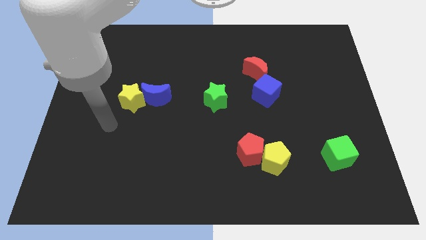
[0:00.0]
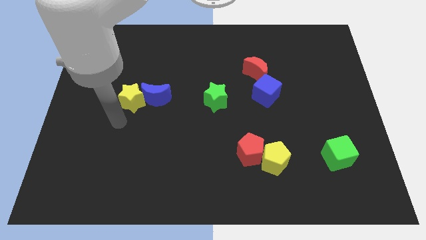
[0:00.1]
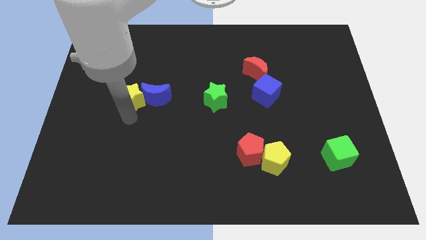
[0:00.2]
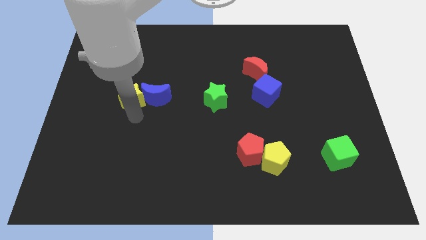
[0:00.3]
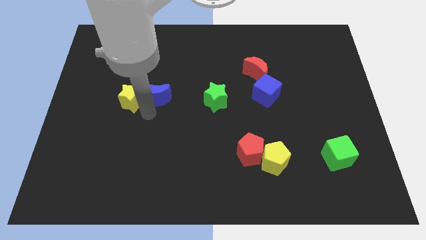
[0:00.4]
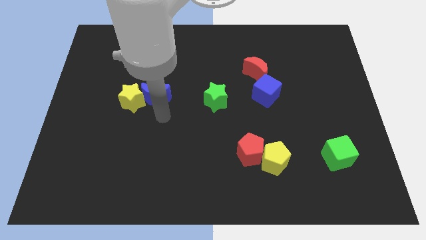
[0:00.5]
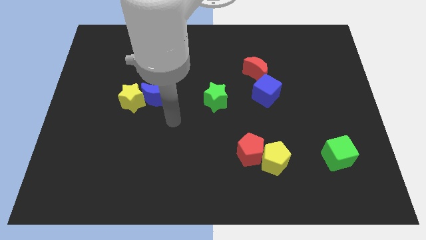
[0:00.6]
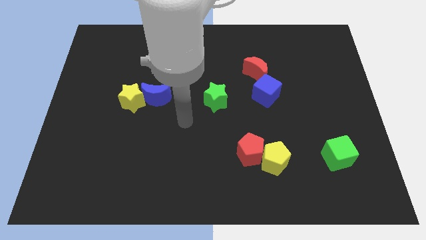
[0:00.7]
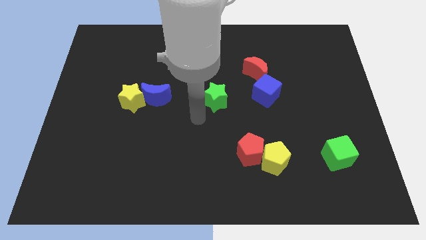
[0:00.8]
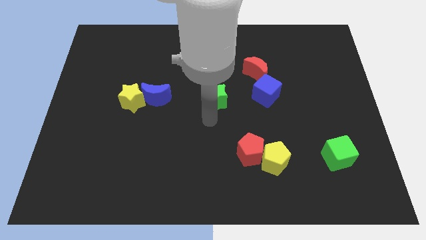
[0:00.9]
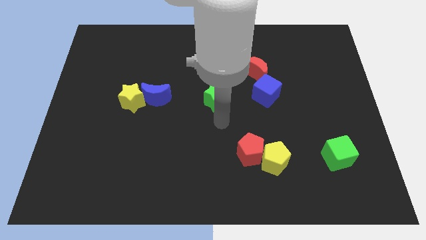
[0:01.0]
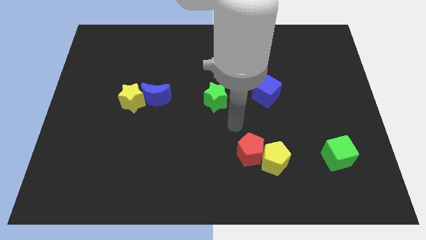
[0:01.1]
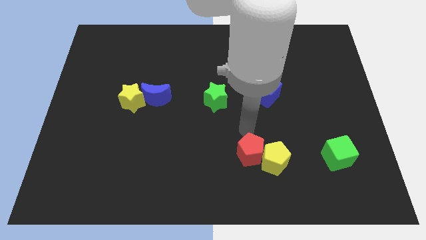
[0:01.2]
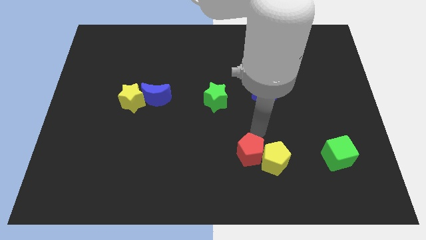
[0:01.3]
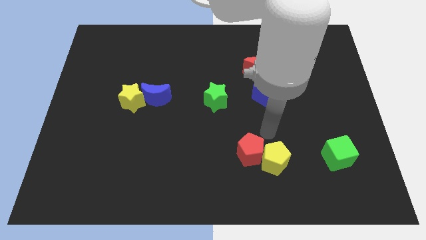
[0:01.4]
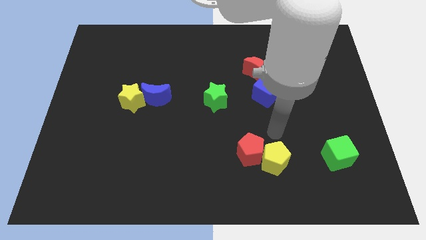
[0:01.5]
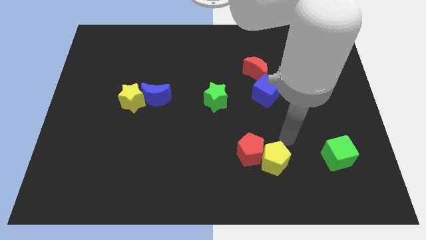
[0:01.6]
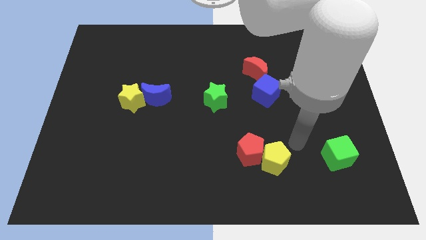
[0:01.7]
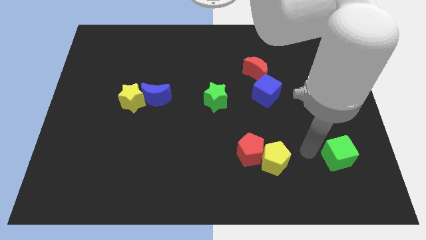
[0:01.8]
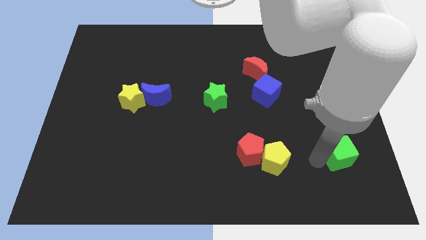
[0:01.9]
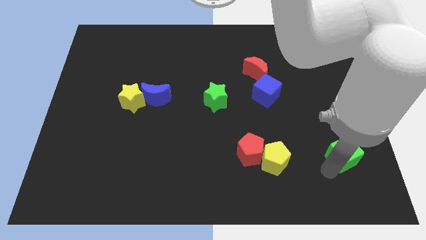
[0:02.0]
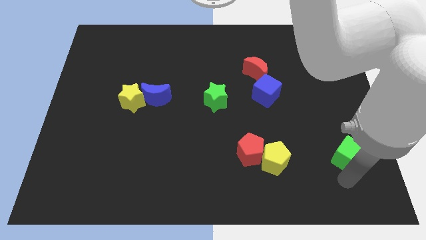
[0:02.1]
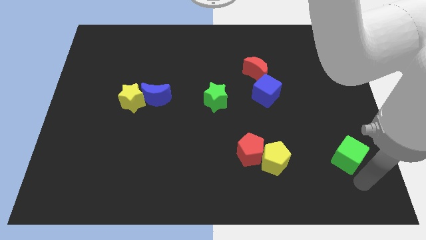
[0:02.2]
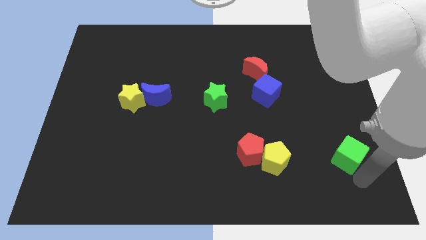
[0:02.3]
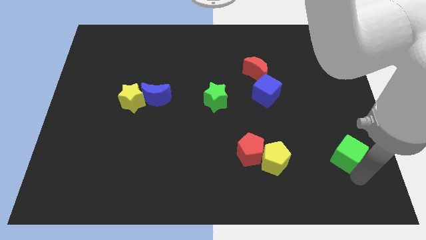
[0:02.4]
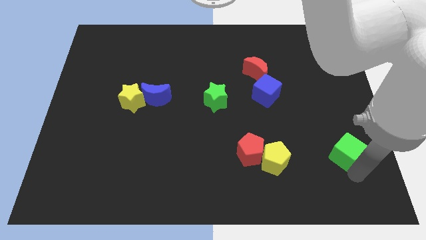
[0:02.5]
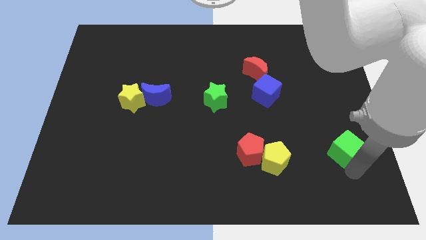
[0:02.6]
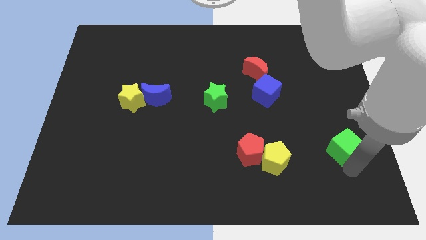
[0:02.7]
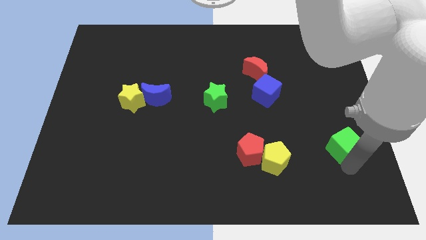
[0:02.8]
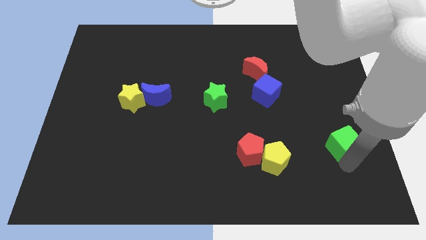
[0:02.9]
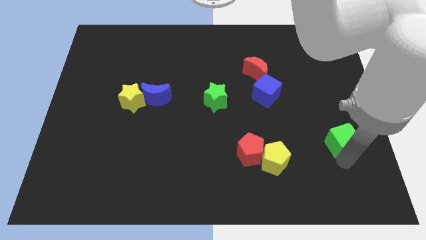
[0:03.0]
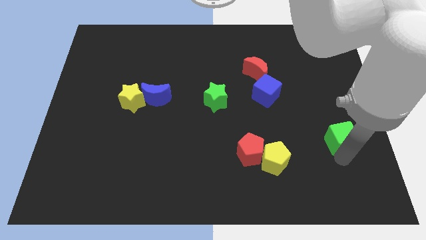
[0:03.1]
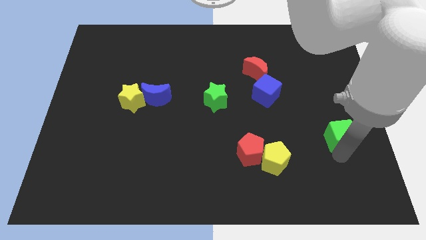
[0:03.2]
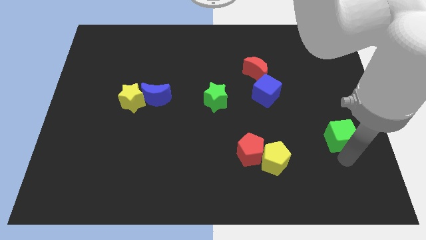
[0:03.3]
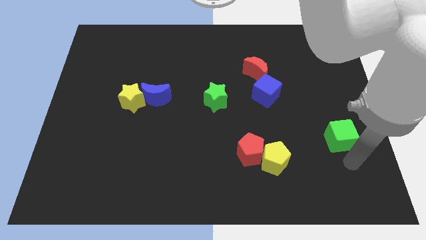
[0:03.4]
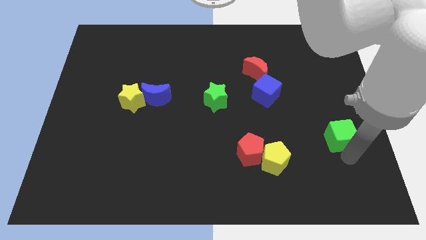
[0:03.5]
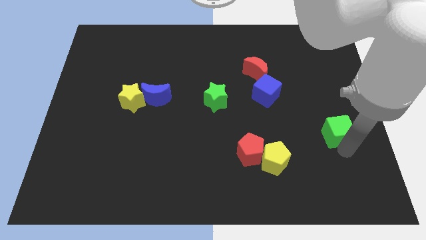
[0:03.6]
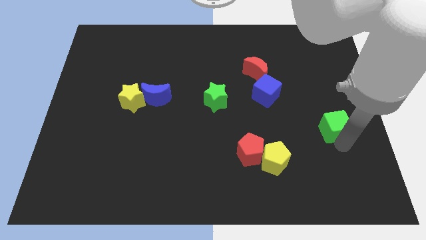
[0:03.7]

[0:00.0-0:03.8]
move the green cube a little bit upwards

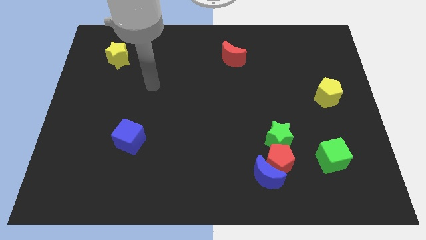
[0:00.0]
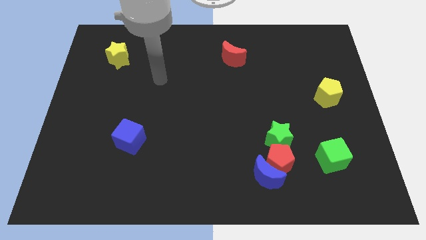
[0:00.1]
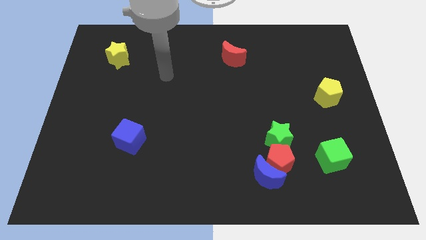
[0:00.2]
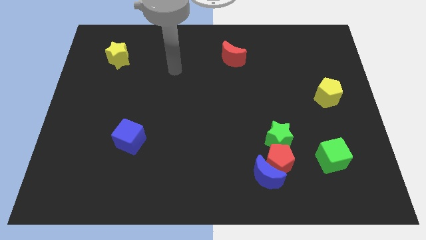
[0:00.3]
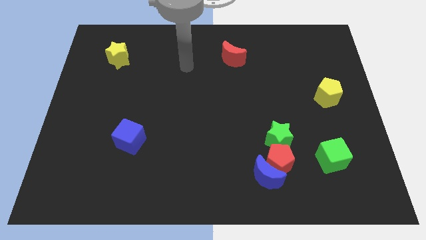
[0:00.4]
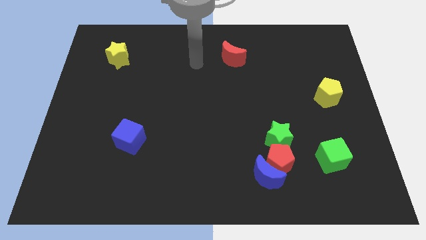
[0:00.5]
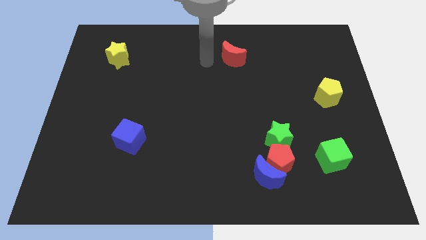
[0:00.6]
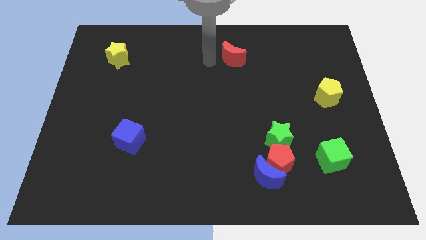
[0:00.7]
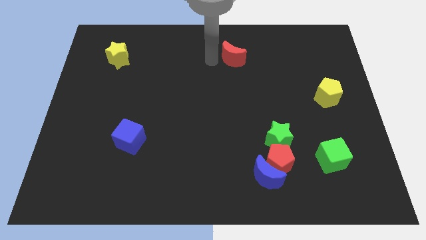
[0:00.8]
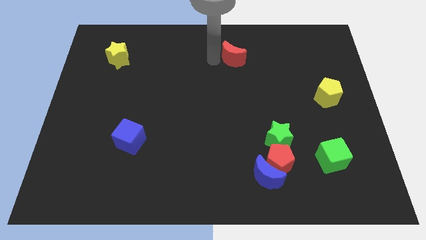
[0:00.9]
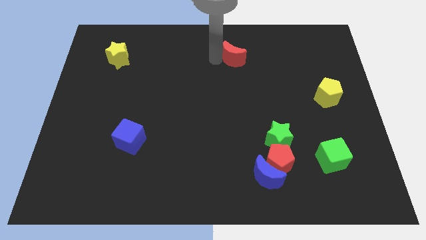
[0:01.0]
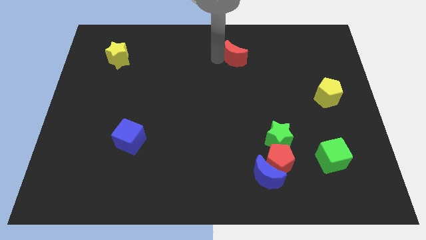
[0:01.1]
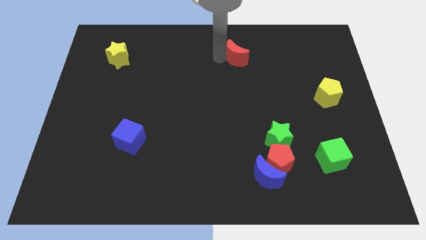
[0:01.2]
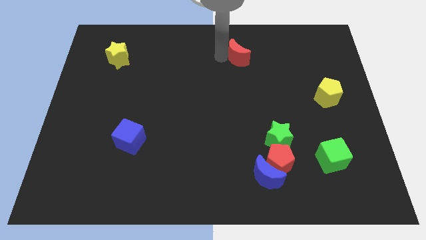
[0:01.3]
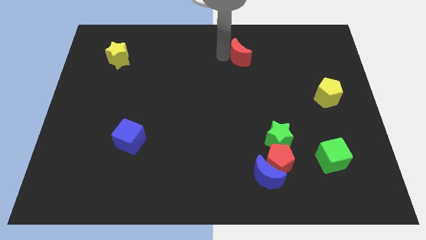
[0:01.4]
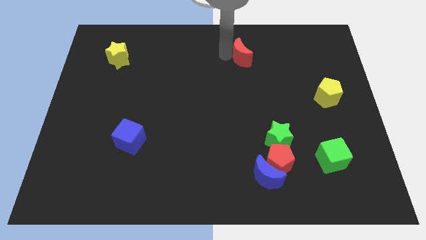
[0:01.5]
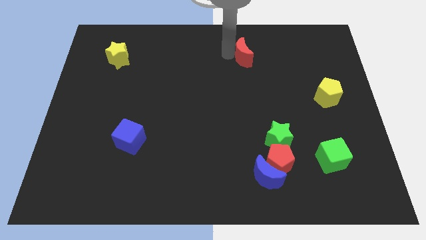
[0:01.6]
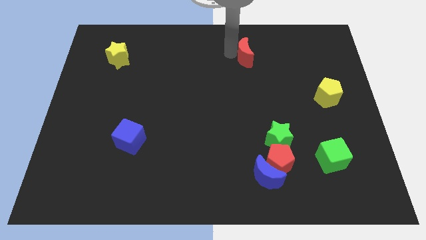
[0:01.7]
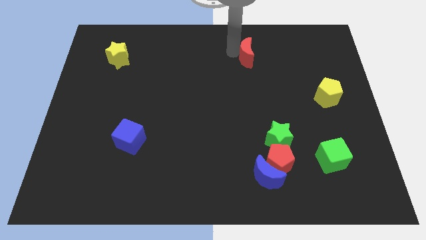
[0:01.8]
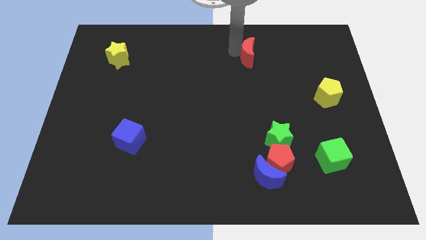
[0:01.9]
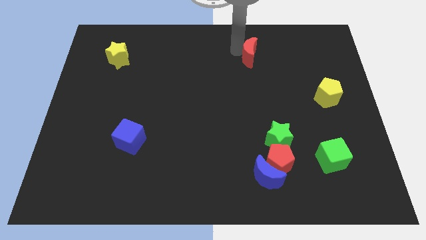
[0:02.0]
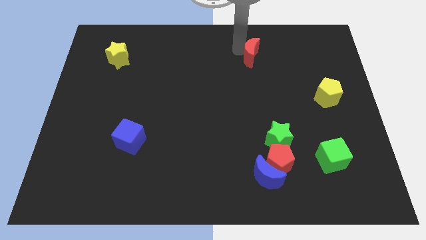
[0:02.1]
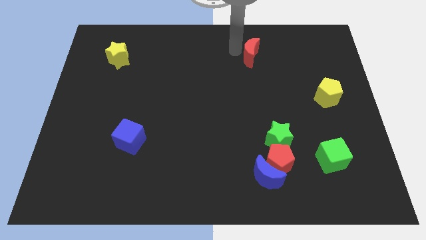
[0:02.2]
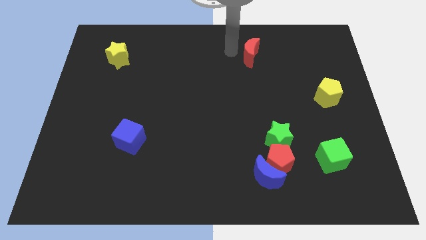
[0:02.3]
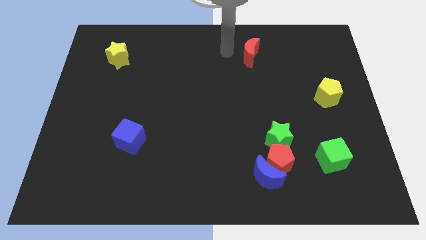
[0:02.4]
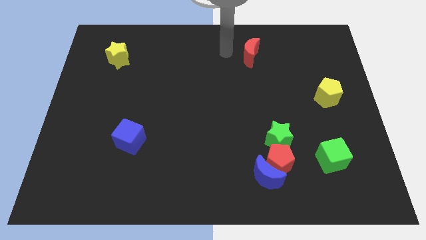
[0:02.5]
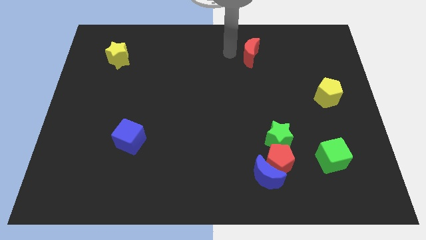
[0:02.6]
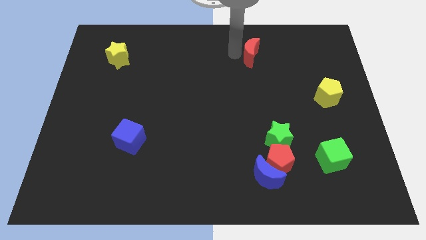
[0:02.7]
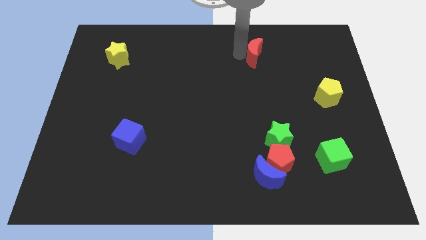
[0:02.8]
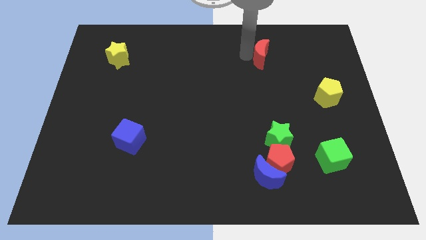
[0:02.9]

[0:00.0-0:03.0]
push the red moon to the right a little

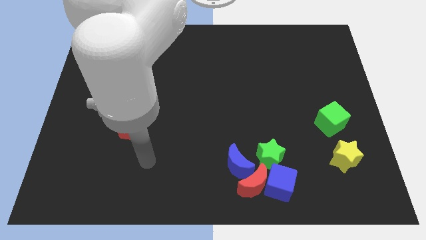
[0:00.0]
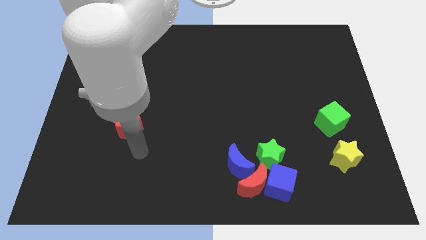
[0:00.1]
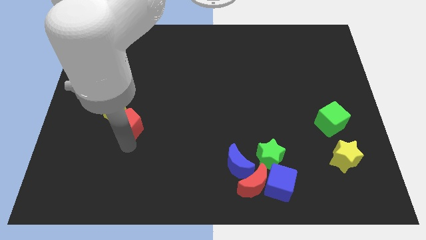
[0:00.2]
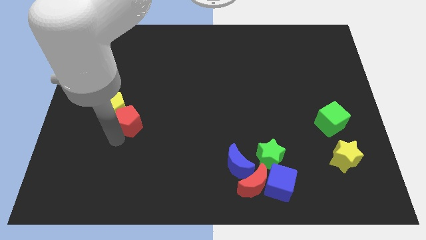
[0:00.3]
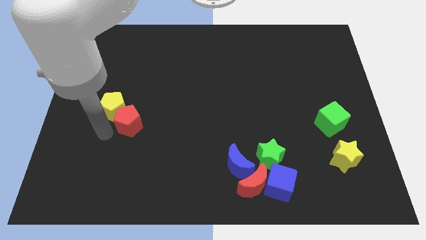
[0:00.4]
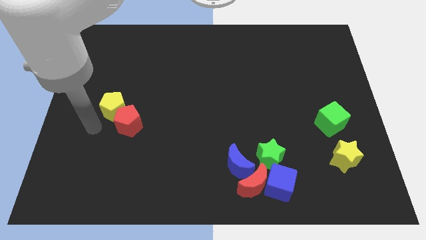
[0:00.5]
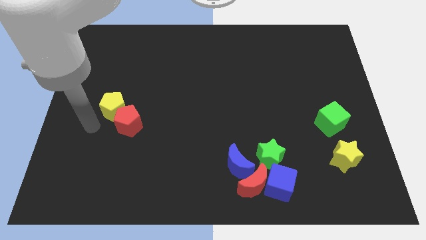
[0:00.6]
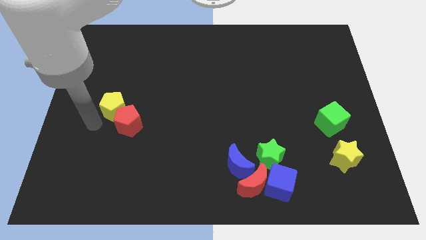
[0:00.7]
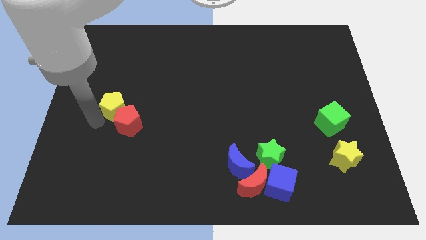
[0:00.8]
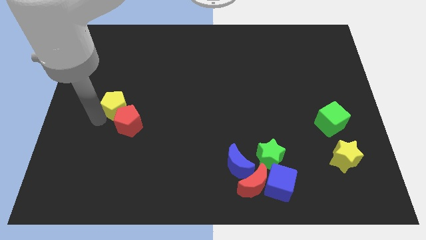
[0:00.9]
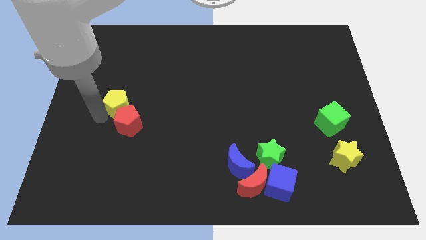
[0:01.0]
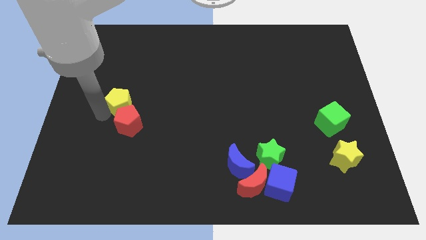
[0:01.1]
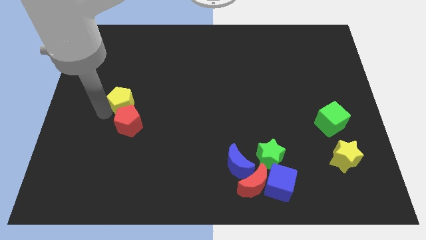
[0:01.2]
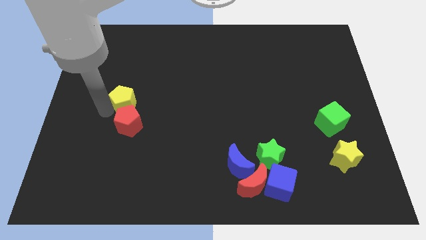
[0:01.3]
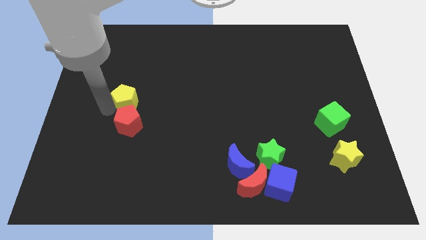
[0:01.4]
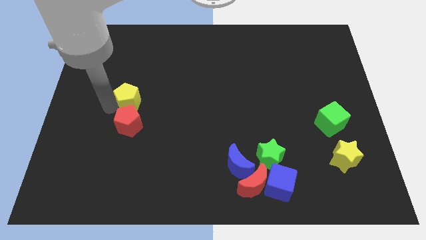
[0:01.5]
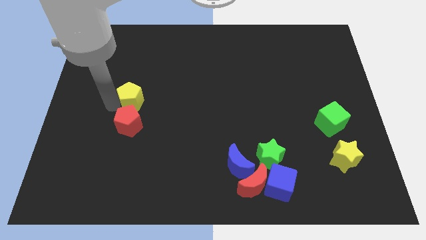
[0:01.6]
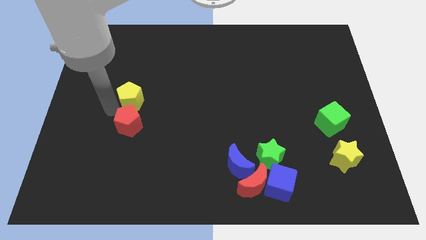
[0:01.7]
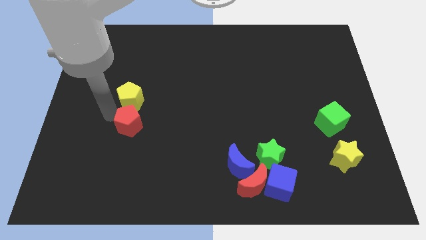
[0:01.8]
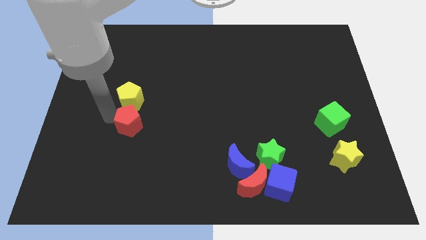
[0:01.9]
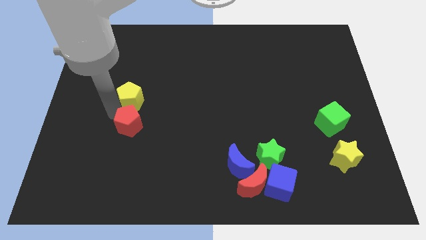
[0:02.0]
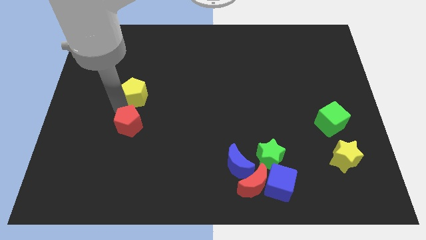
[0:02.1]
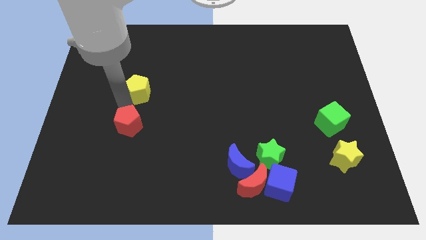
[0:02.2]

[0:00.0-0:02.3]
push the yellow pentagon a bit diagonally upwards and to the right
